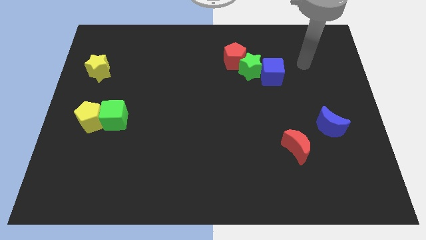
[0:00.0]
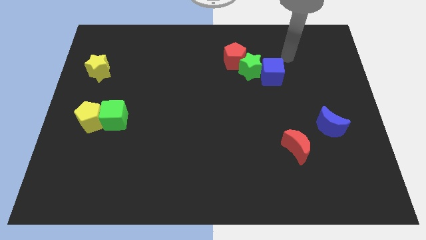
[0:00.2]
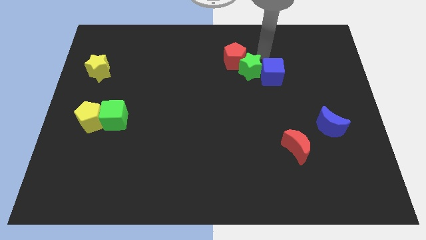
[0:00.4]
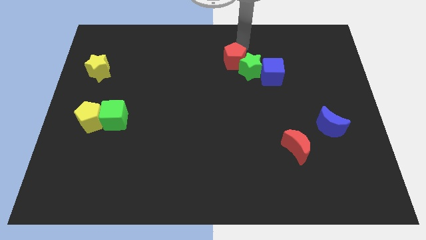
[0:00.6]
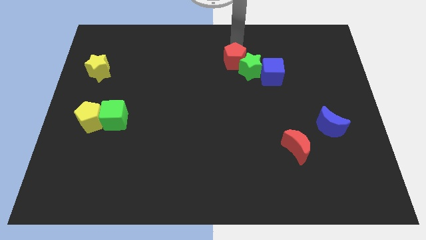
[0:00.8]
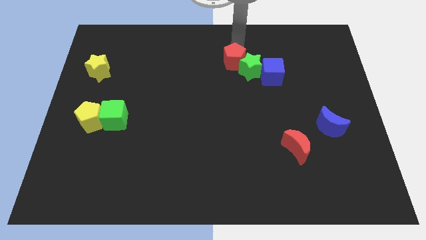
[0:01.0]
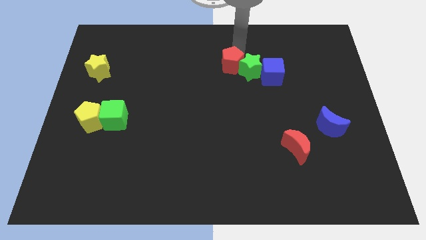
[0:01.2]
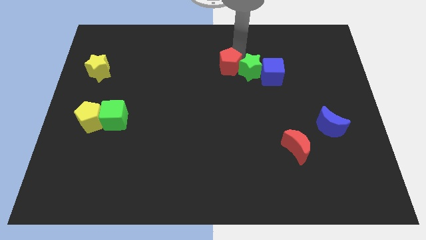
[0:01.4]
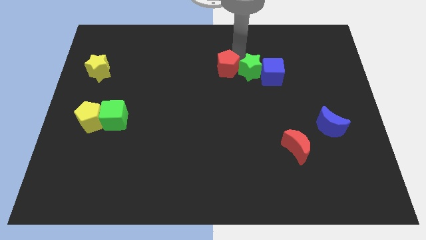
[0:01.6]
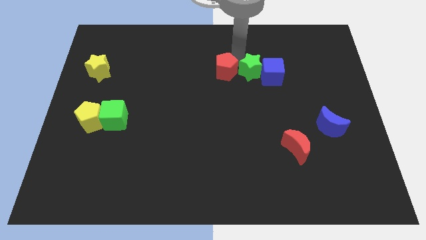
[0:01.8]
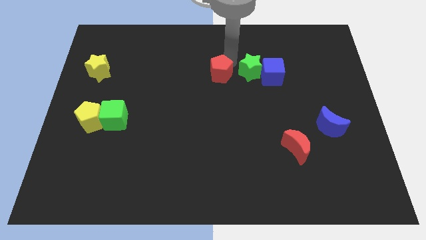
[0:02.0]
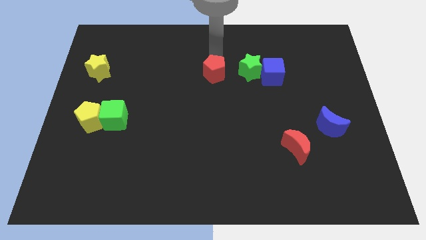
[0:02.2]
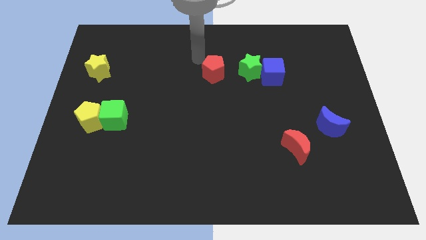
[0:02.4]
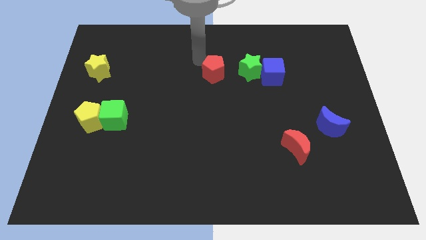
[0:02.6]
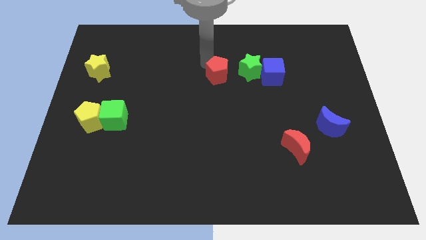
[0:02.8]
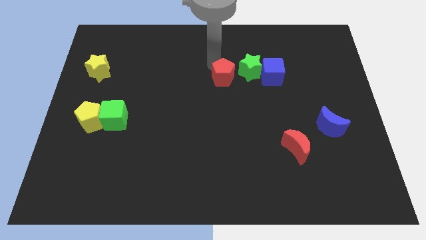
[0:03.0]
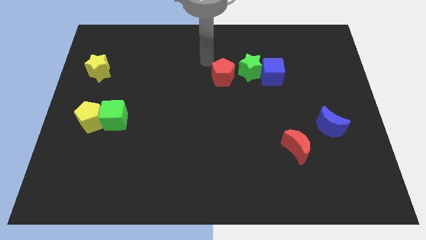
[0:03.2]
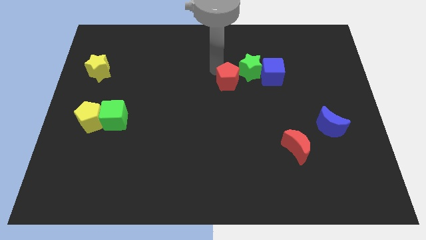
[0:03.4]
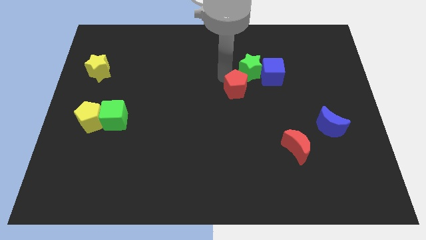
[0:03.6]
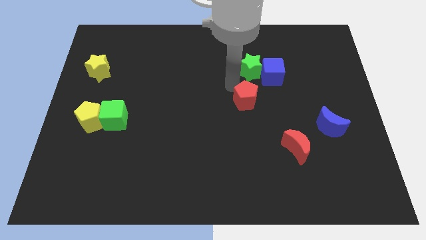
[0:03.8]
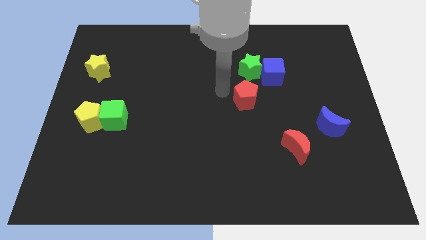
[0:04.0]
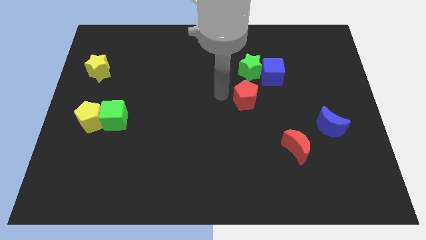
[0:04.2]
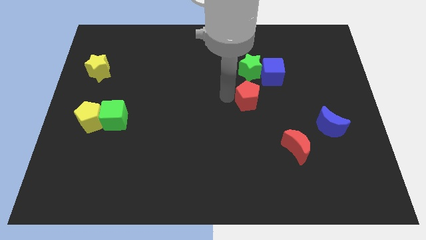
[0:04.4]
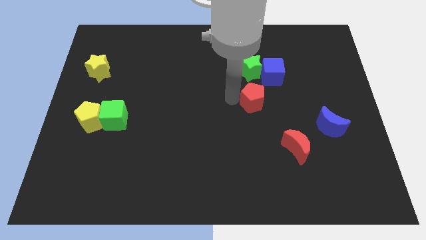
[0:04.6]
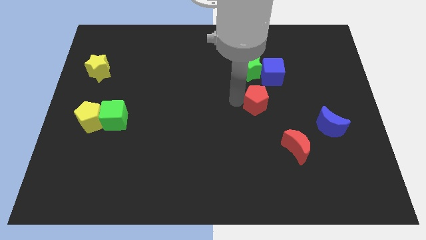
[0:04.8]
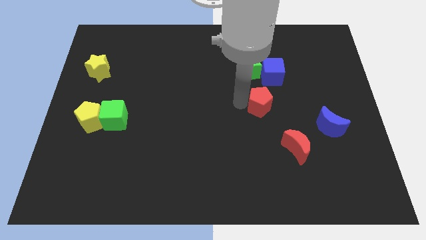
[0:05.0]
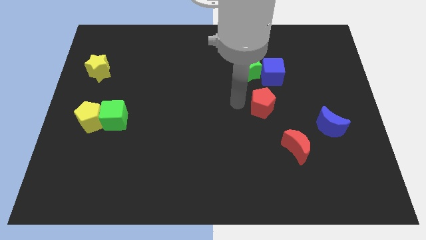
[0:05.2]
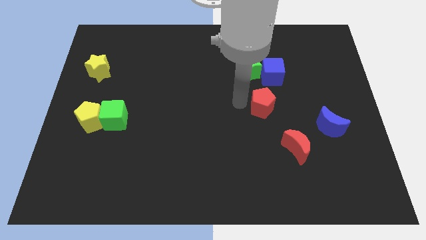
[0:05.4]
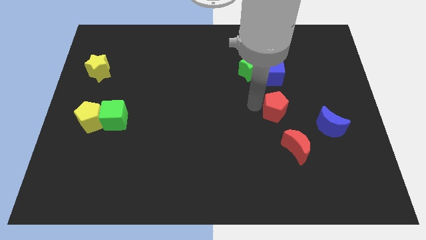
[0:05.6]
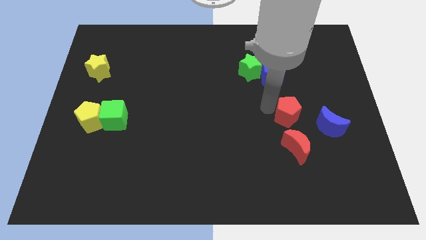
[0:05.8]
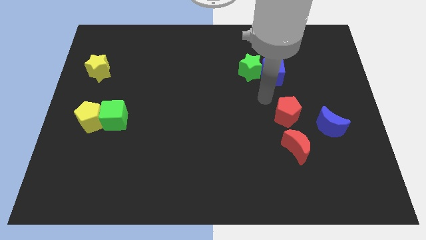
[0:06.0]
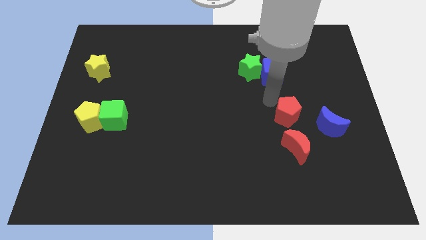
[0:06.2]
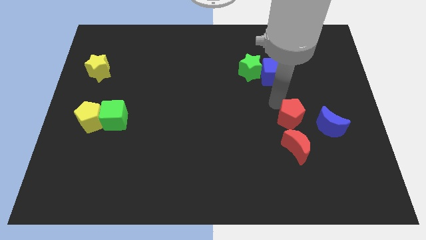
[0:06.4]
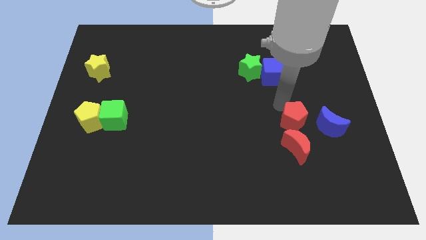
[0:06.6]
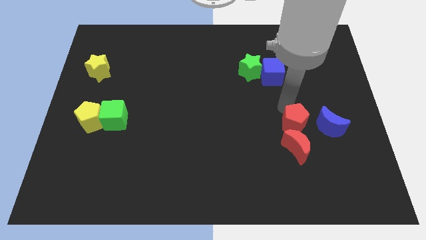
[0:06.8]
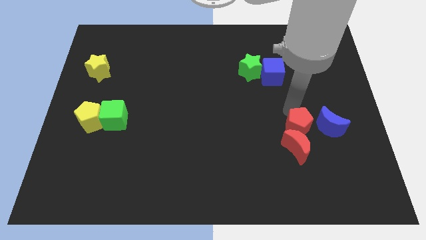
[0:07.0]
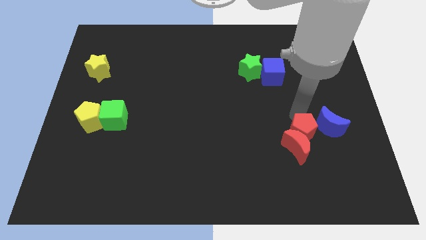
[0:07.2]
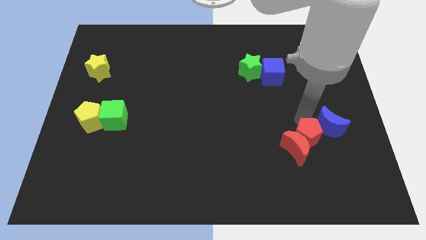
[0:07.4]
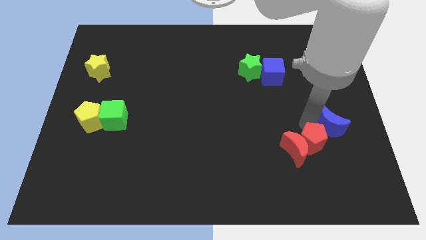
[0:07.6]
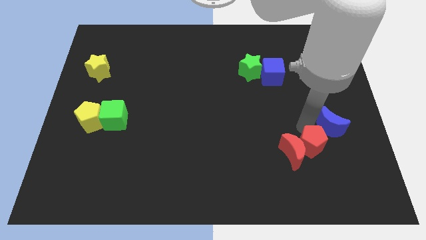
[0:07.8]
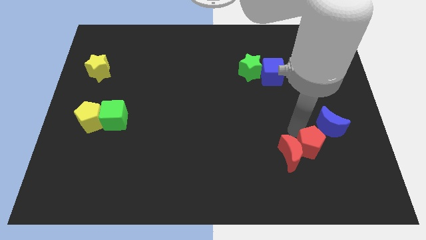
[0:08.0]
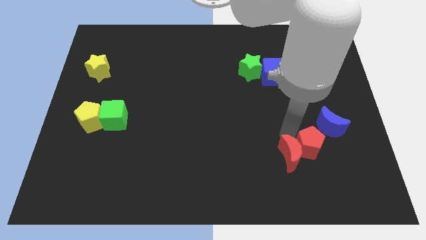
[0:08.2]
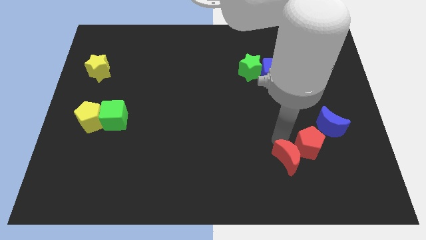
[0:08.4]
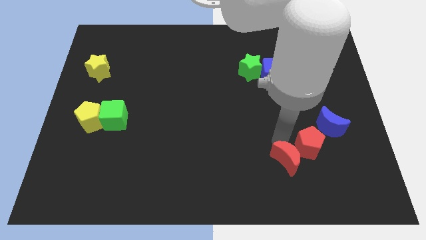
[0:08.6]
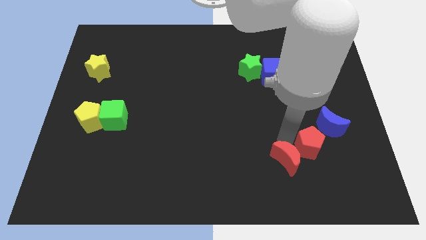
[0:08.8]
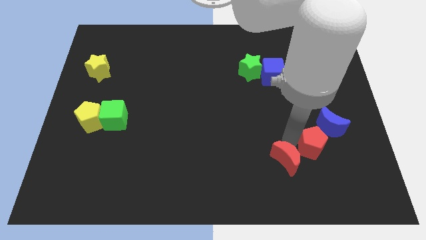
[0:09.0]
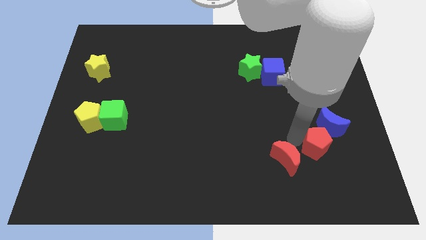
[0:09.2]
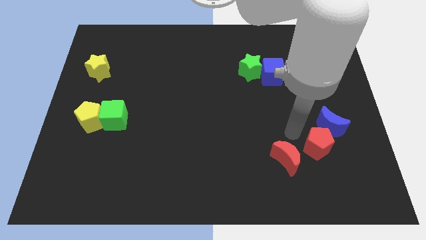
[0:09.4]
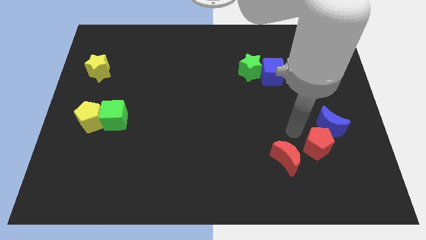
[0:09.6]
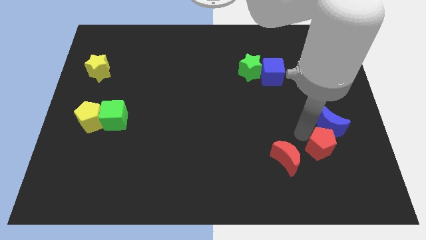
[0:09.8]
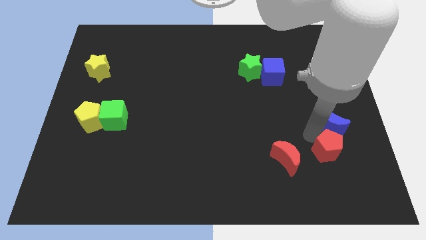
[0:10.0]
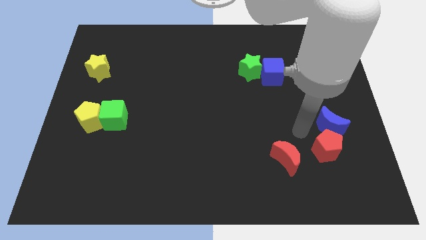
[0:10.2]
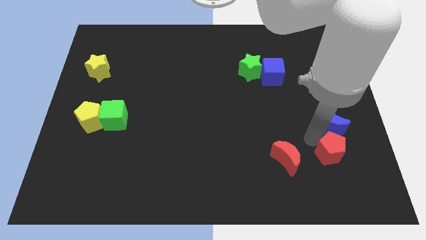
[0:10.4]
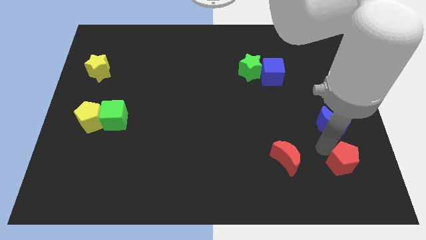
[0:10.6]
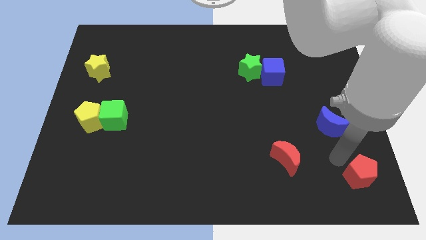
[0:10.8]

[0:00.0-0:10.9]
move the red pentagon to the bottom right

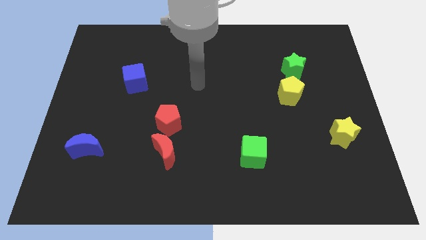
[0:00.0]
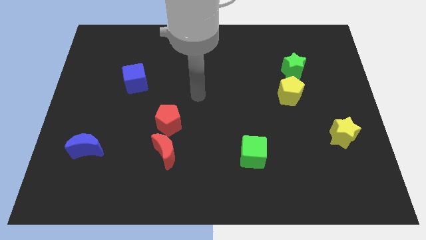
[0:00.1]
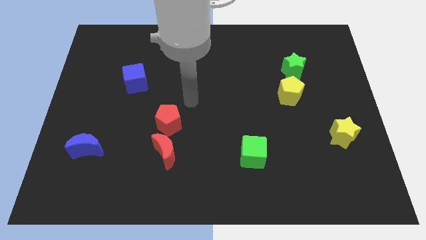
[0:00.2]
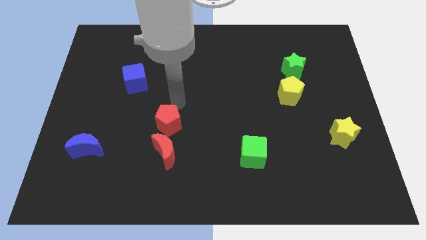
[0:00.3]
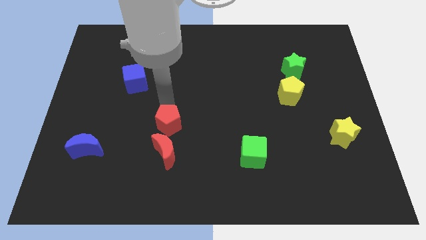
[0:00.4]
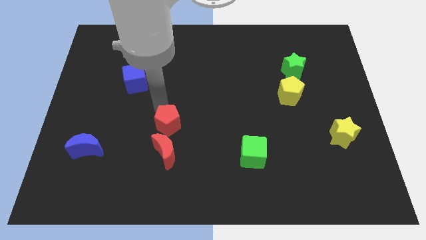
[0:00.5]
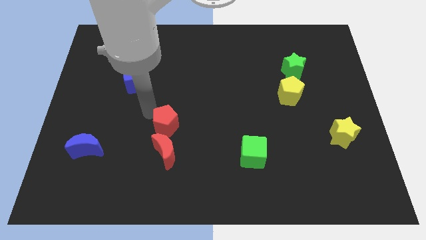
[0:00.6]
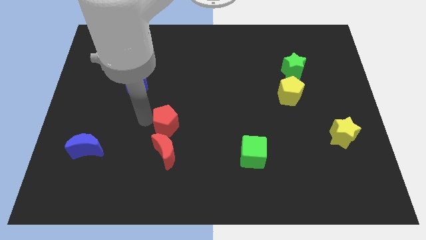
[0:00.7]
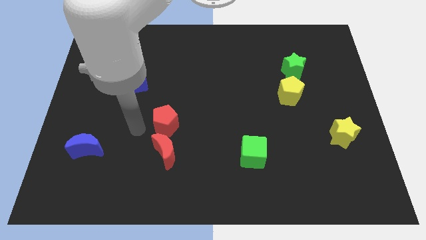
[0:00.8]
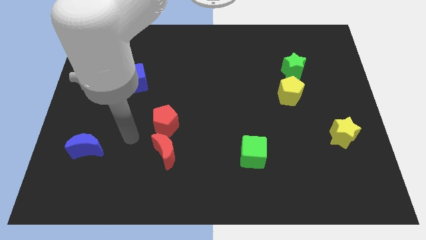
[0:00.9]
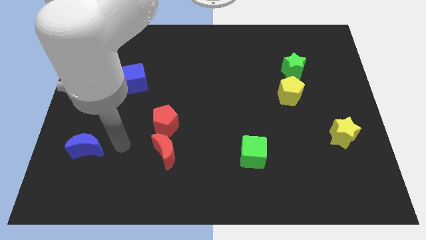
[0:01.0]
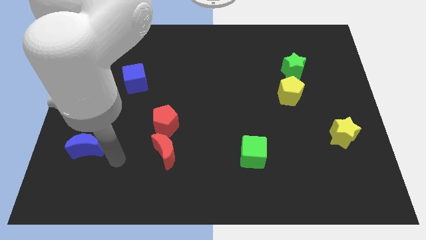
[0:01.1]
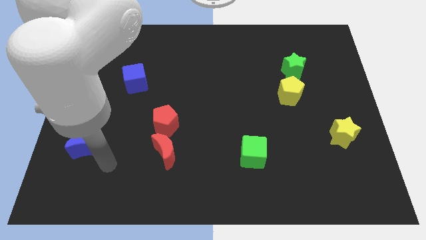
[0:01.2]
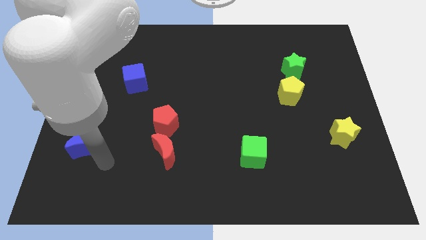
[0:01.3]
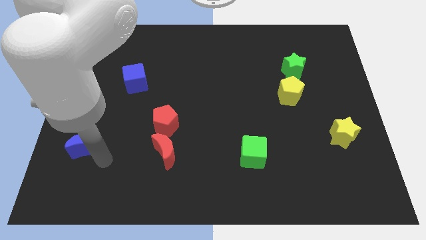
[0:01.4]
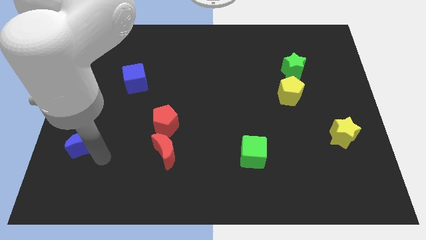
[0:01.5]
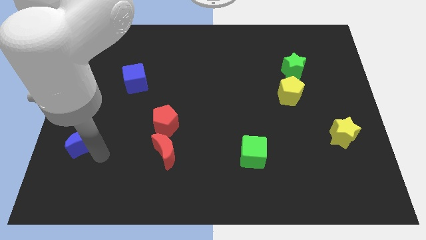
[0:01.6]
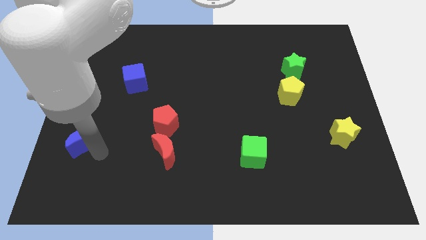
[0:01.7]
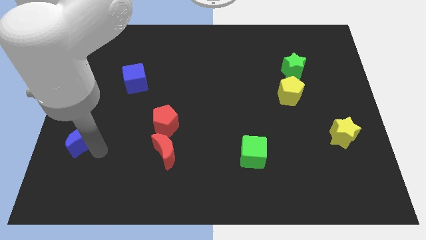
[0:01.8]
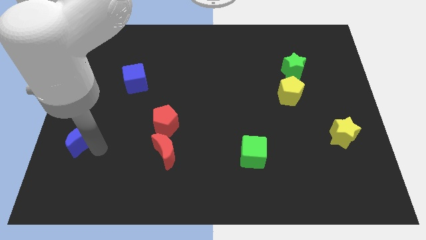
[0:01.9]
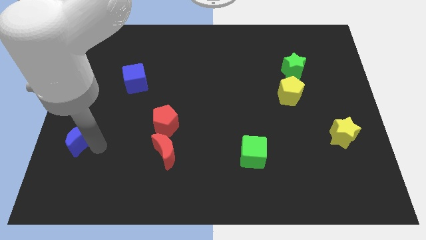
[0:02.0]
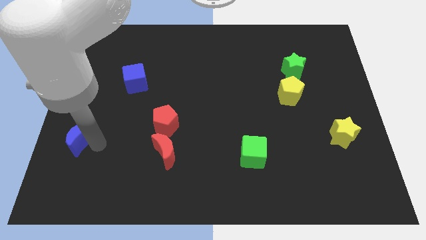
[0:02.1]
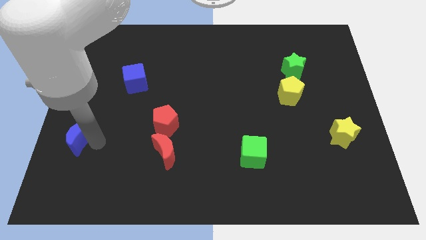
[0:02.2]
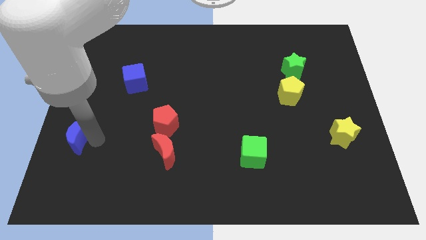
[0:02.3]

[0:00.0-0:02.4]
move the blue moon to the center left
